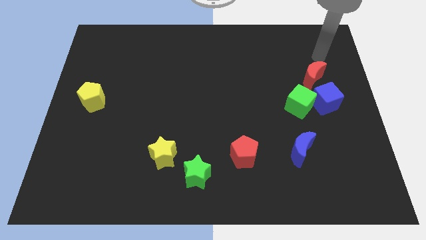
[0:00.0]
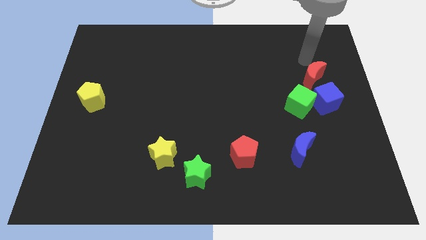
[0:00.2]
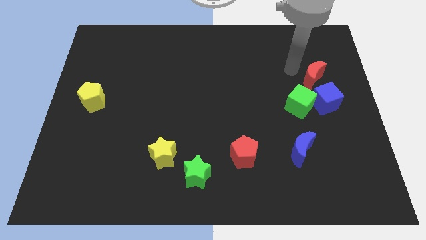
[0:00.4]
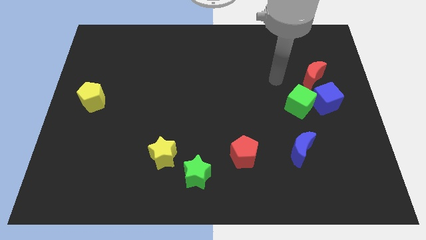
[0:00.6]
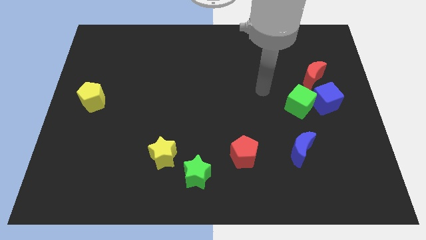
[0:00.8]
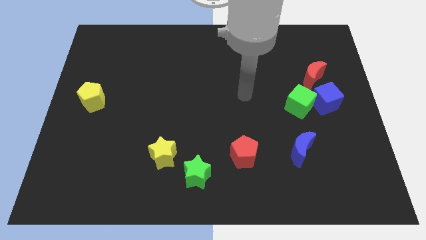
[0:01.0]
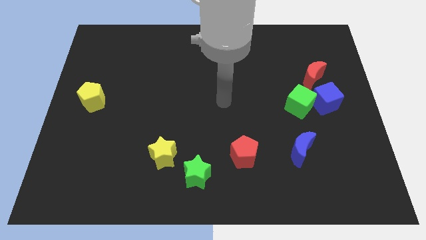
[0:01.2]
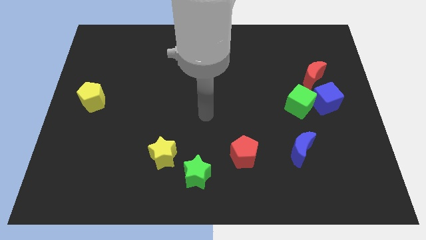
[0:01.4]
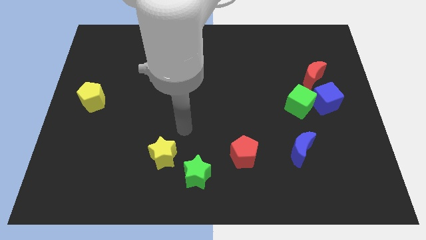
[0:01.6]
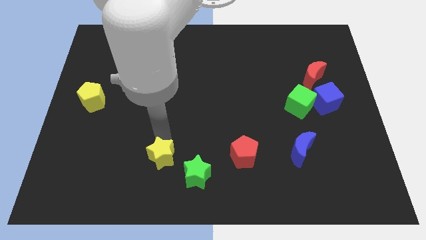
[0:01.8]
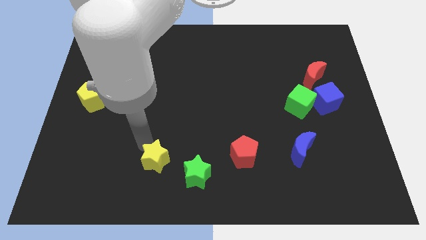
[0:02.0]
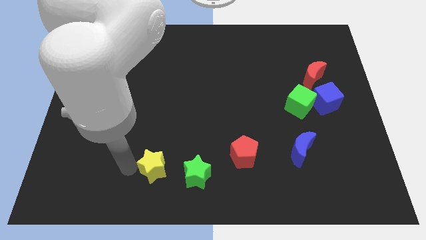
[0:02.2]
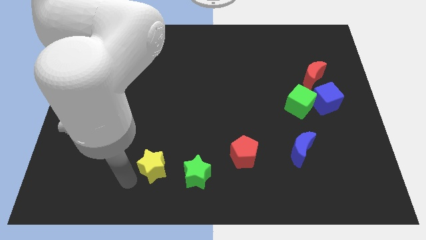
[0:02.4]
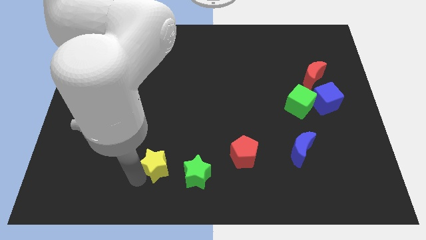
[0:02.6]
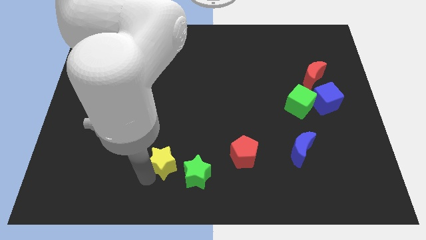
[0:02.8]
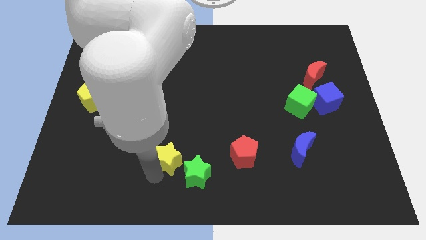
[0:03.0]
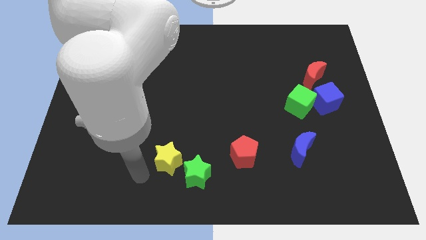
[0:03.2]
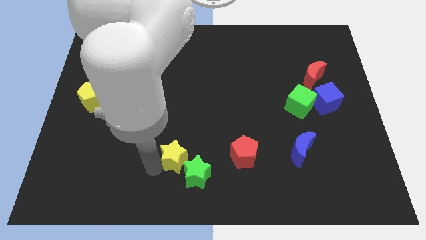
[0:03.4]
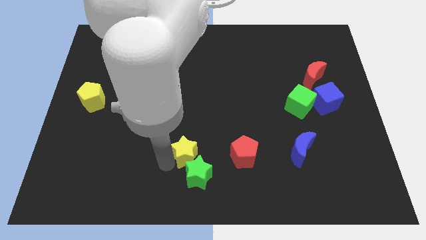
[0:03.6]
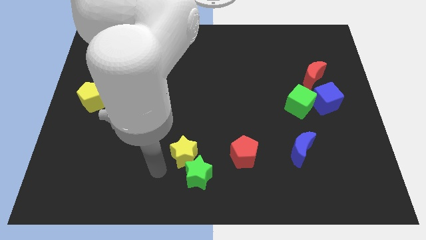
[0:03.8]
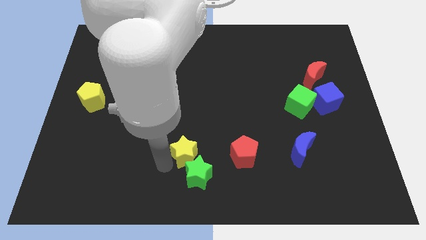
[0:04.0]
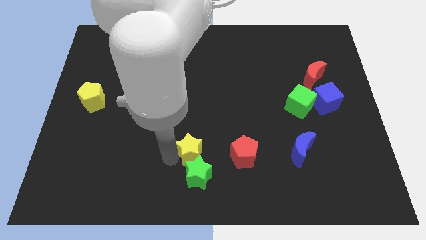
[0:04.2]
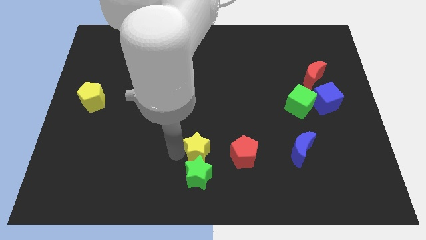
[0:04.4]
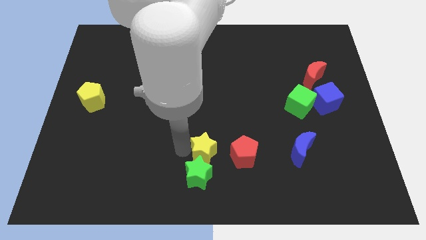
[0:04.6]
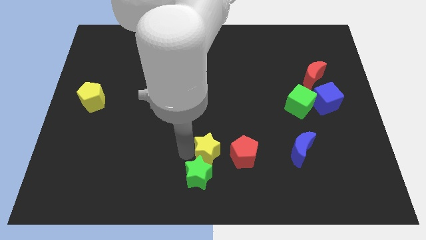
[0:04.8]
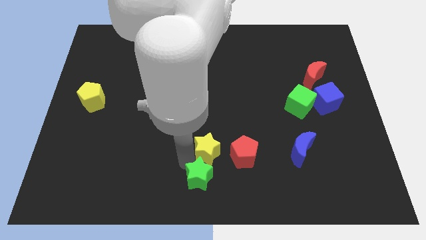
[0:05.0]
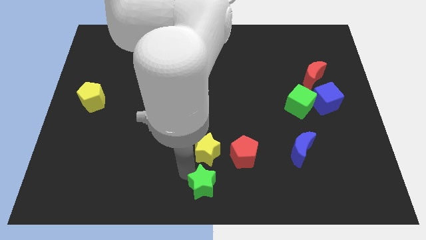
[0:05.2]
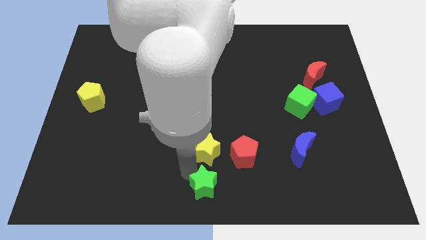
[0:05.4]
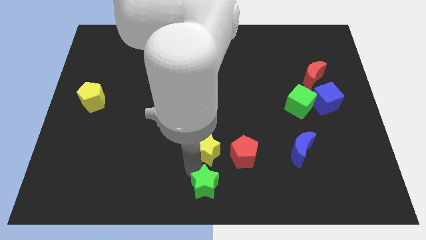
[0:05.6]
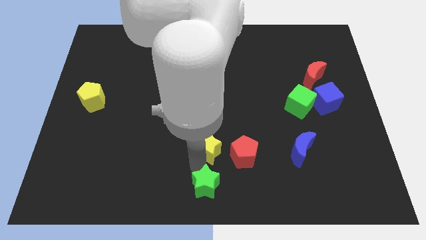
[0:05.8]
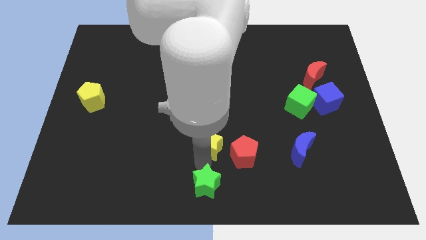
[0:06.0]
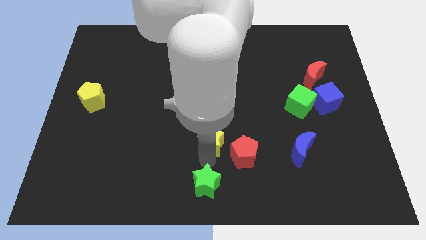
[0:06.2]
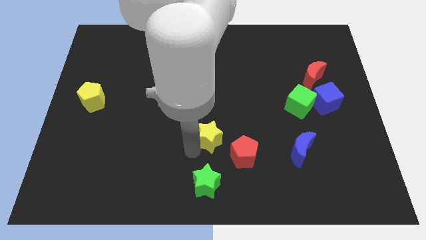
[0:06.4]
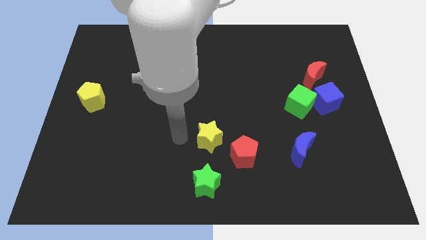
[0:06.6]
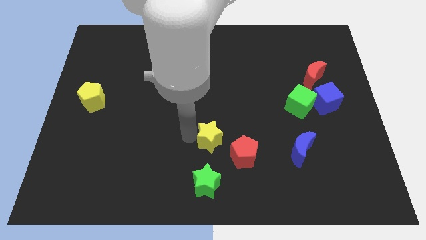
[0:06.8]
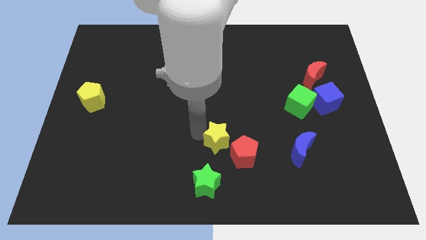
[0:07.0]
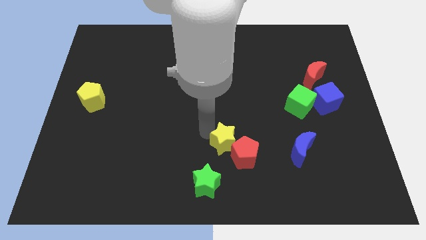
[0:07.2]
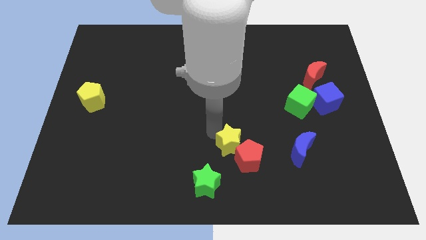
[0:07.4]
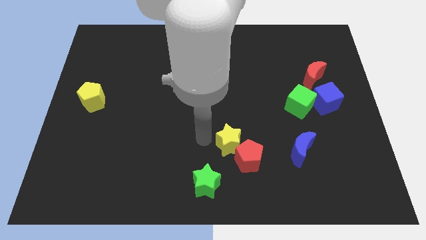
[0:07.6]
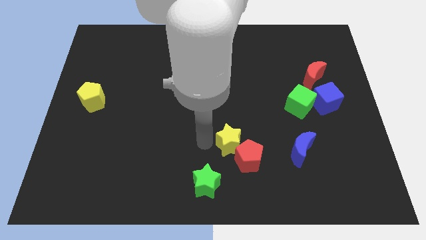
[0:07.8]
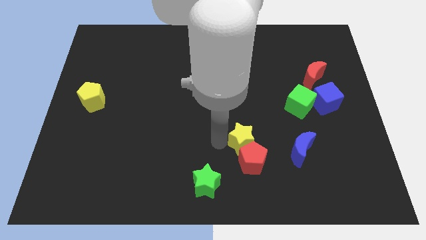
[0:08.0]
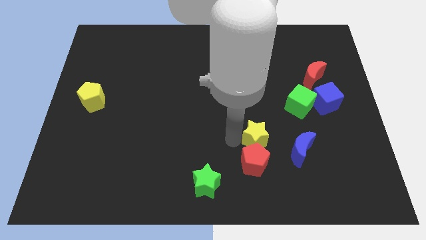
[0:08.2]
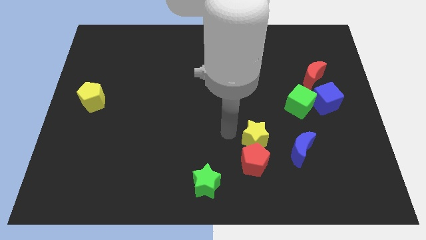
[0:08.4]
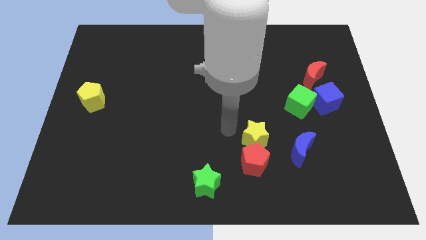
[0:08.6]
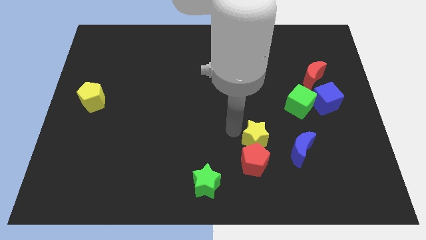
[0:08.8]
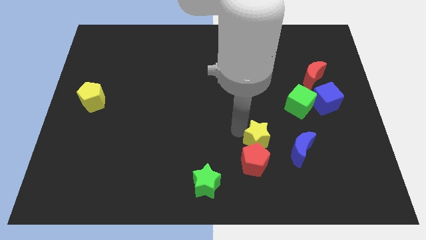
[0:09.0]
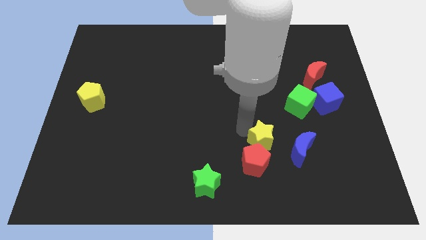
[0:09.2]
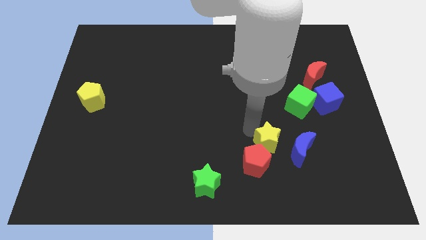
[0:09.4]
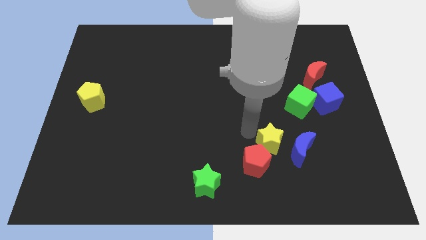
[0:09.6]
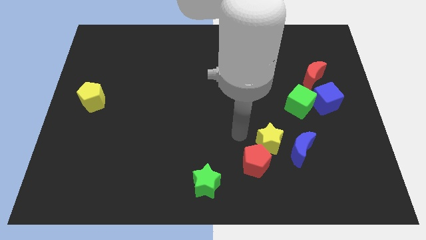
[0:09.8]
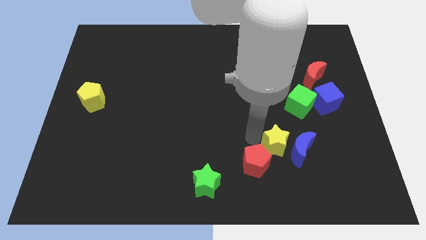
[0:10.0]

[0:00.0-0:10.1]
push the yellow star close to the blue moon

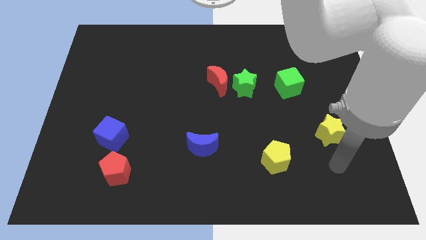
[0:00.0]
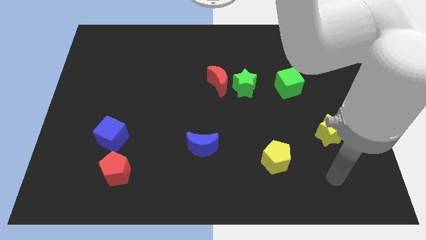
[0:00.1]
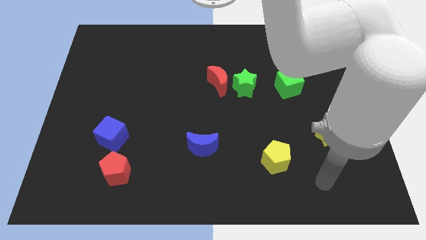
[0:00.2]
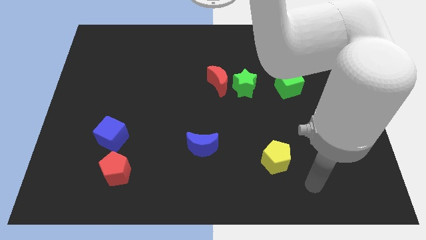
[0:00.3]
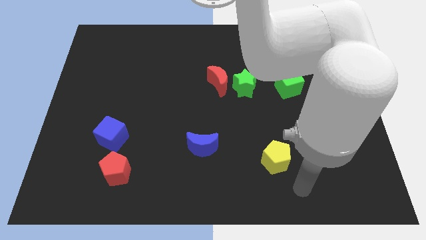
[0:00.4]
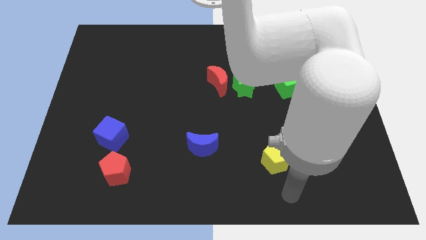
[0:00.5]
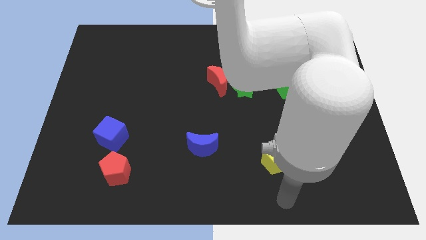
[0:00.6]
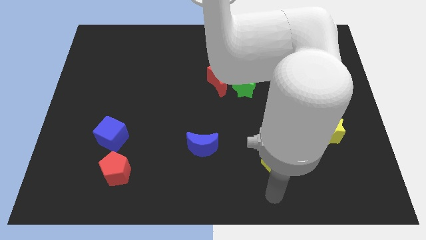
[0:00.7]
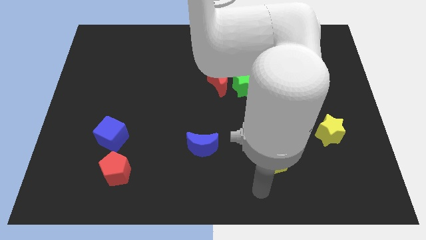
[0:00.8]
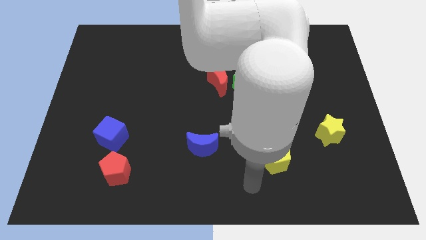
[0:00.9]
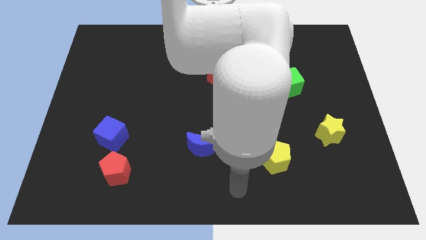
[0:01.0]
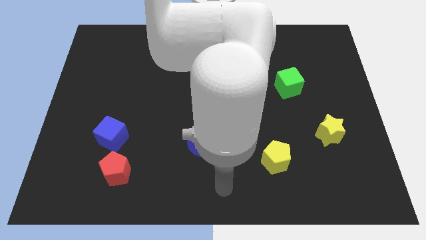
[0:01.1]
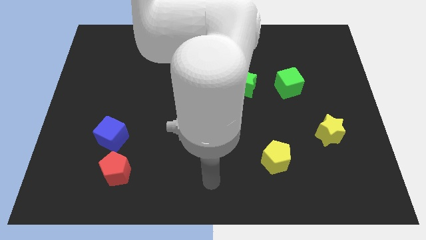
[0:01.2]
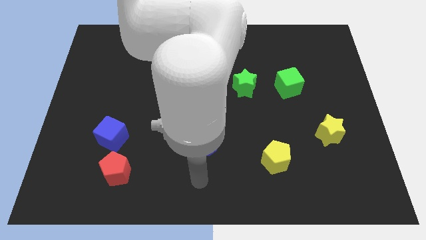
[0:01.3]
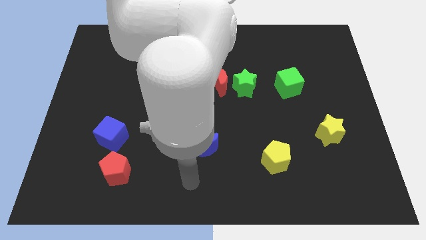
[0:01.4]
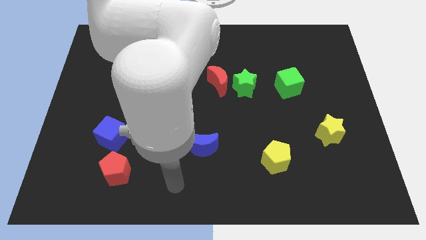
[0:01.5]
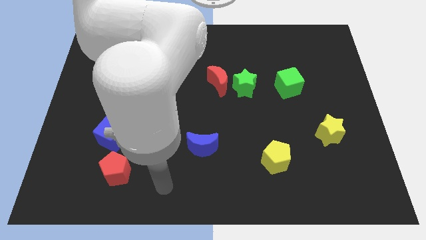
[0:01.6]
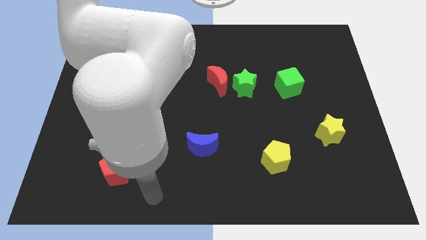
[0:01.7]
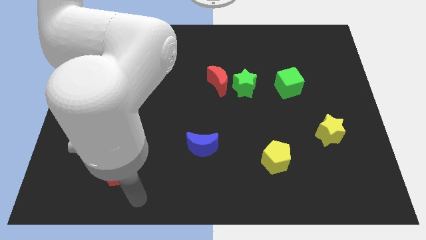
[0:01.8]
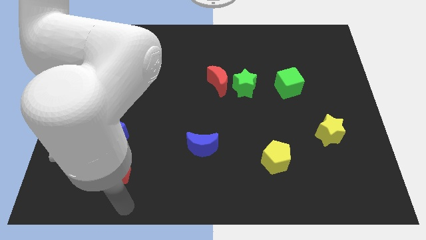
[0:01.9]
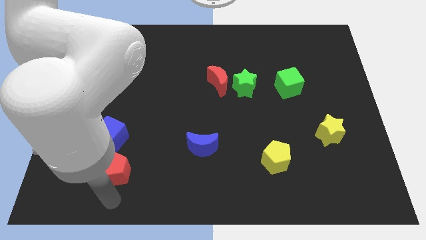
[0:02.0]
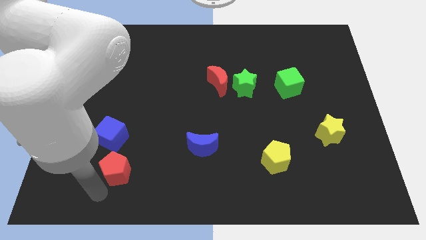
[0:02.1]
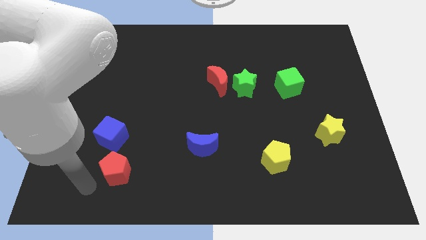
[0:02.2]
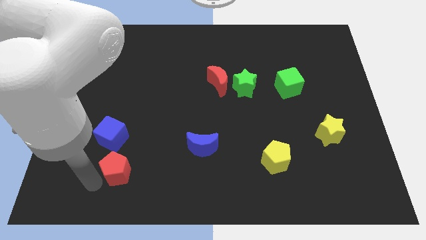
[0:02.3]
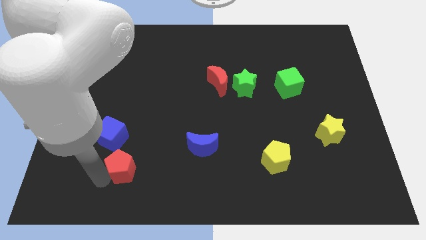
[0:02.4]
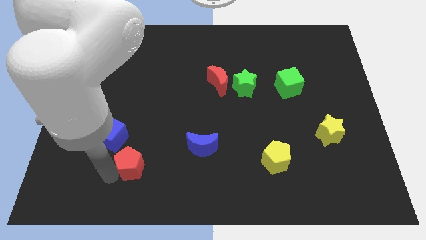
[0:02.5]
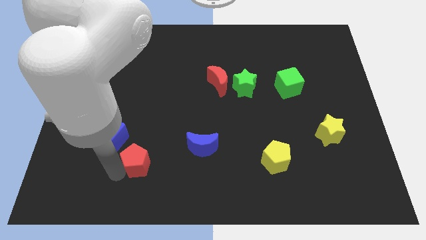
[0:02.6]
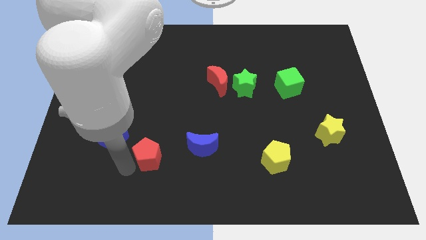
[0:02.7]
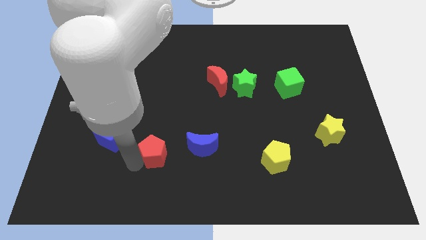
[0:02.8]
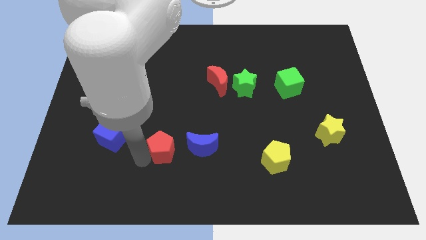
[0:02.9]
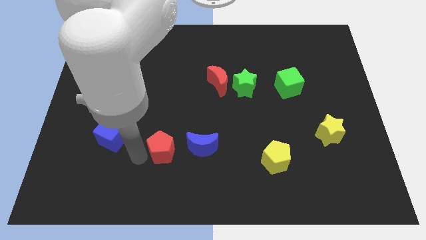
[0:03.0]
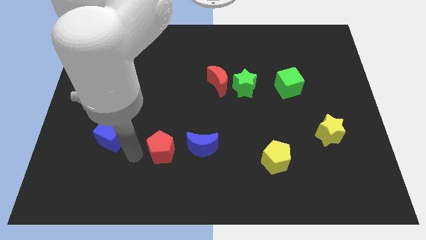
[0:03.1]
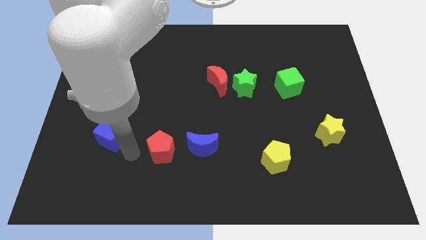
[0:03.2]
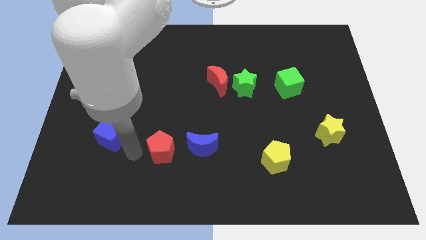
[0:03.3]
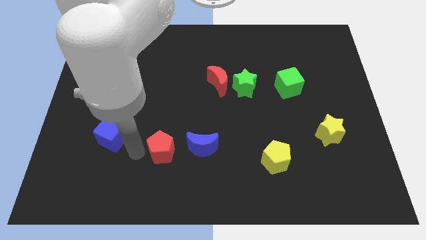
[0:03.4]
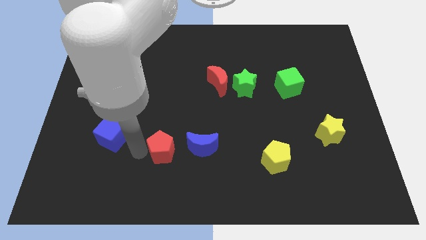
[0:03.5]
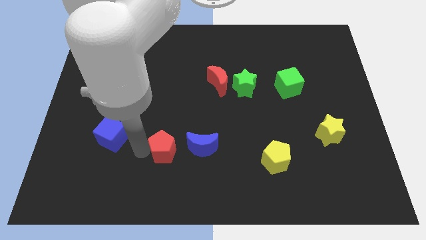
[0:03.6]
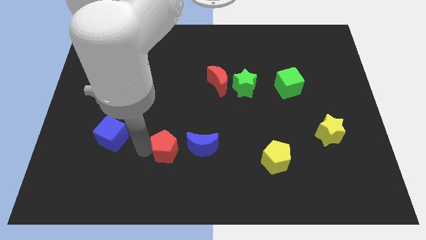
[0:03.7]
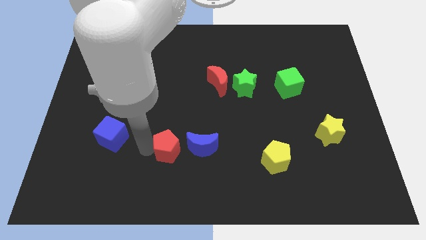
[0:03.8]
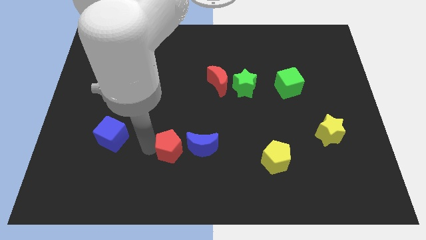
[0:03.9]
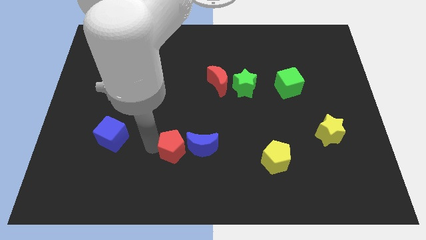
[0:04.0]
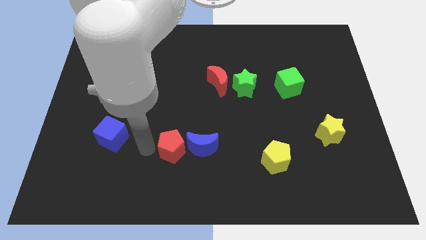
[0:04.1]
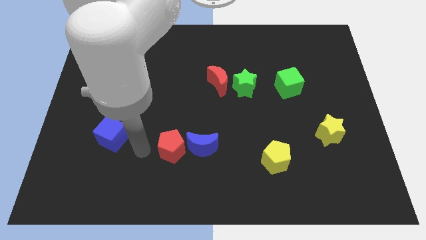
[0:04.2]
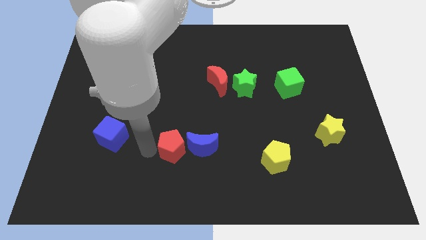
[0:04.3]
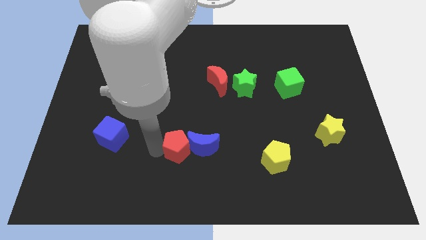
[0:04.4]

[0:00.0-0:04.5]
push the red pentagon close to the blue moon
